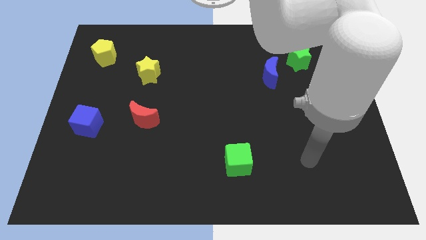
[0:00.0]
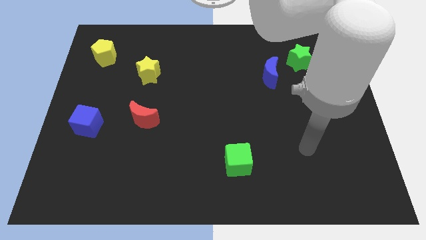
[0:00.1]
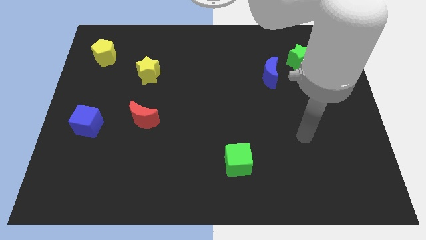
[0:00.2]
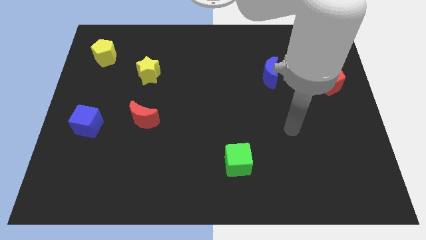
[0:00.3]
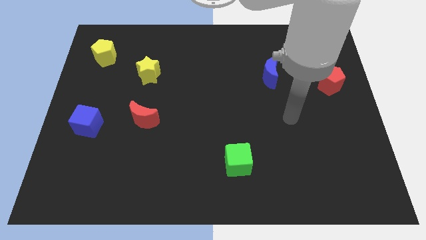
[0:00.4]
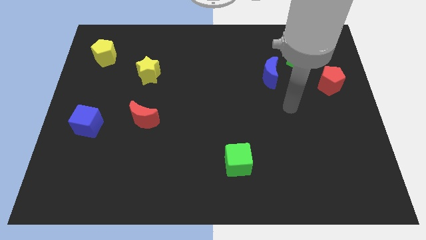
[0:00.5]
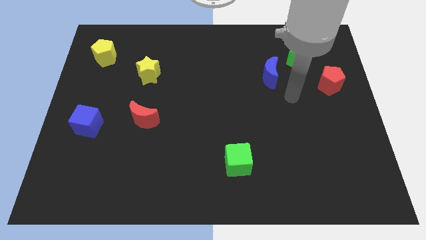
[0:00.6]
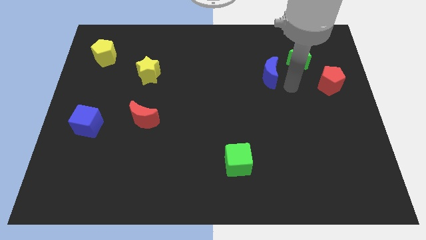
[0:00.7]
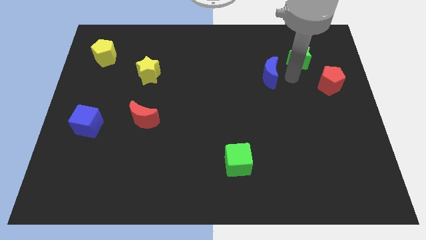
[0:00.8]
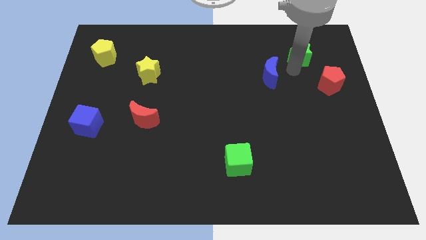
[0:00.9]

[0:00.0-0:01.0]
move the blue moon away from the green star

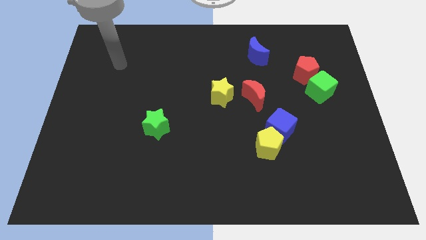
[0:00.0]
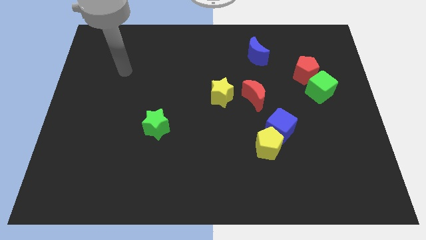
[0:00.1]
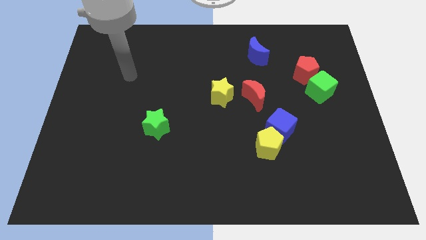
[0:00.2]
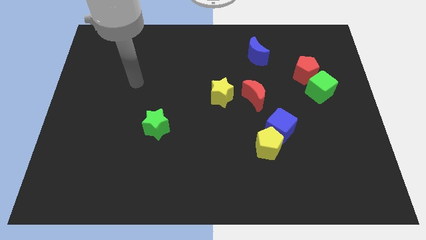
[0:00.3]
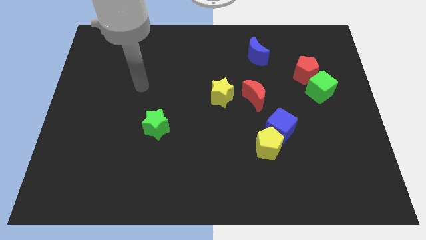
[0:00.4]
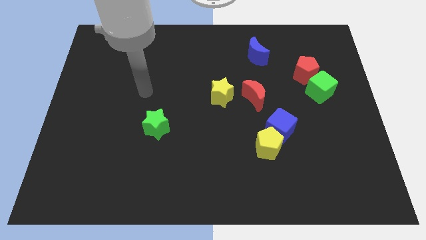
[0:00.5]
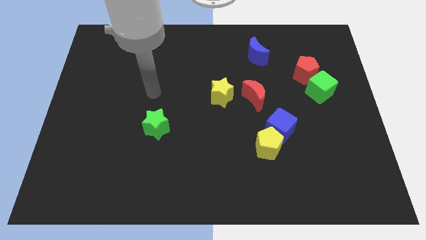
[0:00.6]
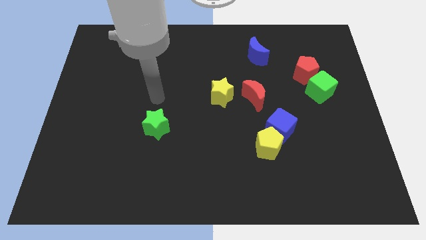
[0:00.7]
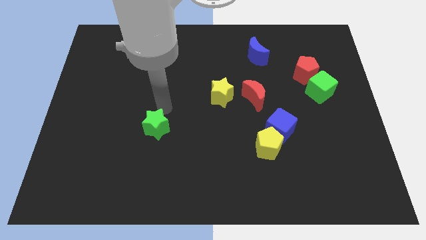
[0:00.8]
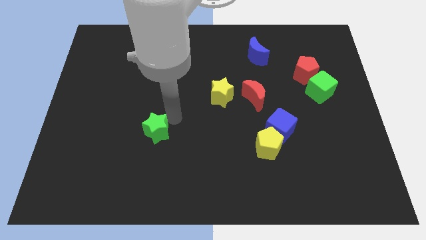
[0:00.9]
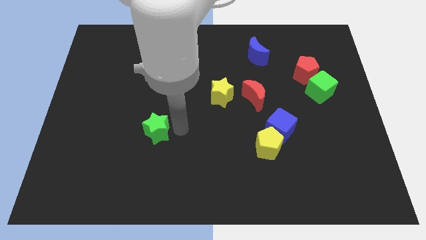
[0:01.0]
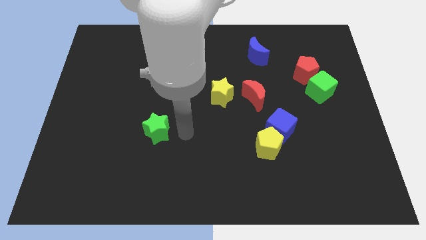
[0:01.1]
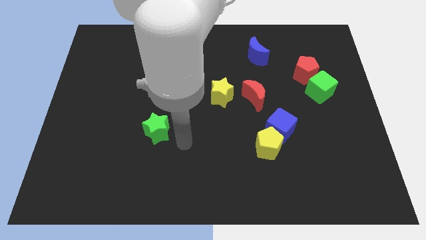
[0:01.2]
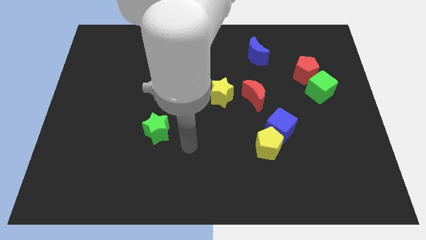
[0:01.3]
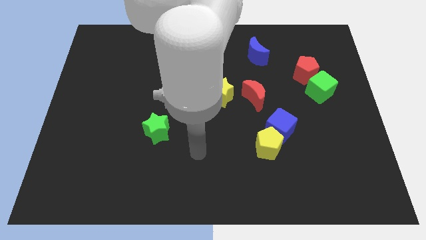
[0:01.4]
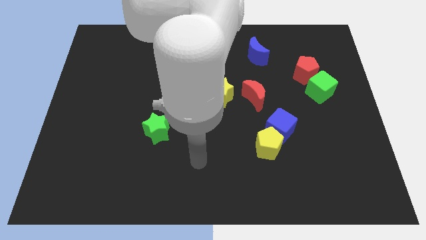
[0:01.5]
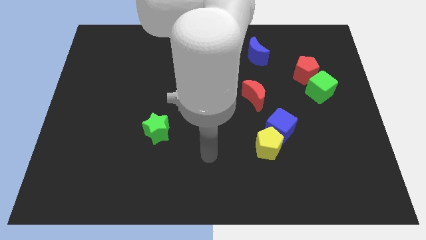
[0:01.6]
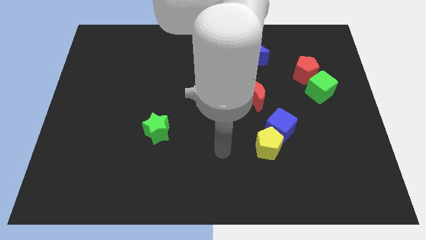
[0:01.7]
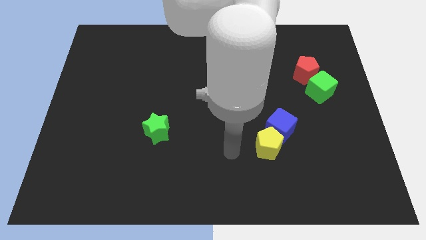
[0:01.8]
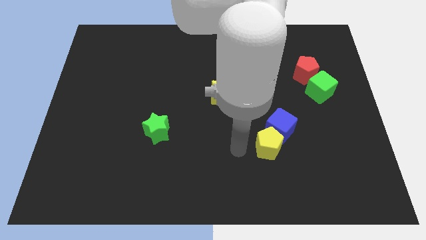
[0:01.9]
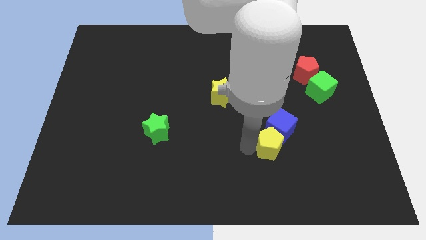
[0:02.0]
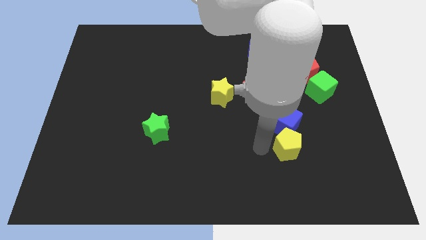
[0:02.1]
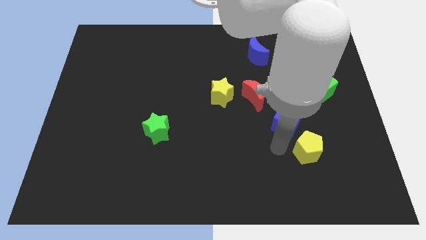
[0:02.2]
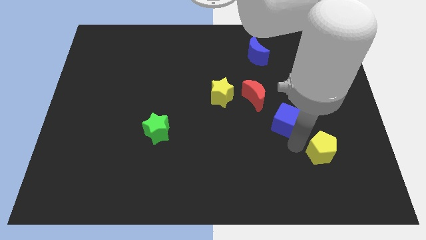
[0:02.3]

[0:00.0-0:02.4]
move the blue cube away from the yellow pentagon

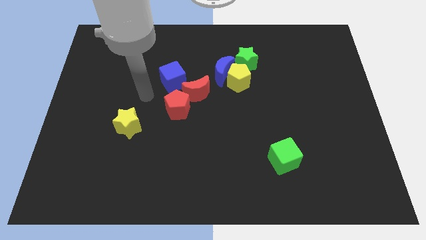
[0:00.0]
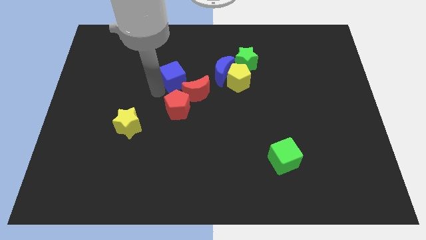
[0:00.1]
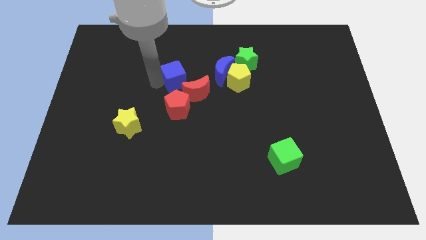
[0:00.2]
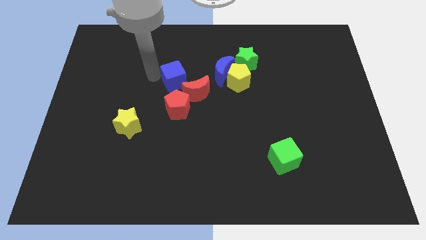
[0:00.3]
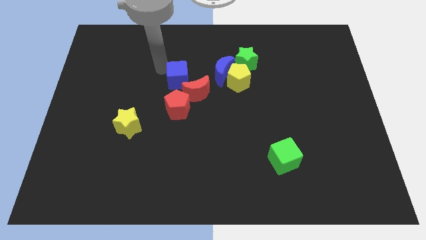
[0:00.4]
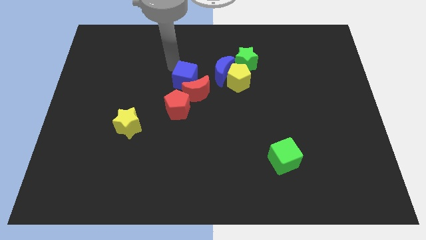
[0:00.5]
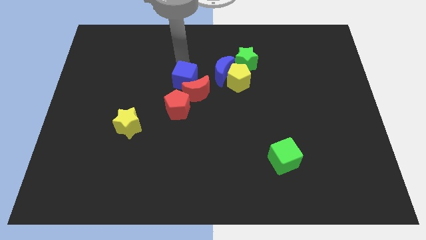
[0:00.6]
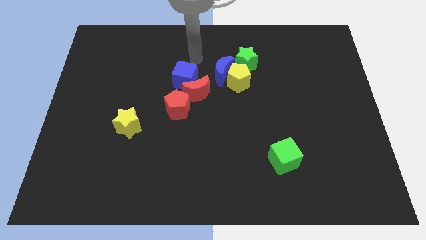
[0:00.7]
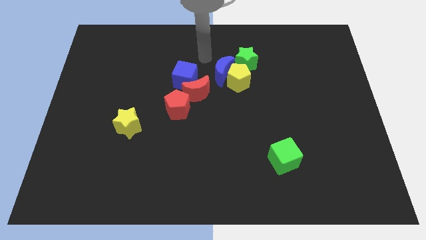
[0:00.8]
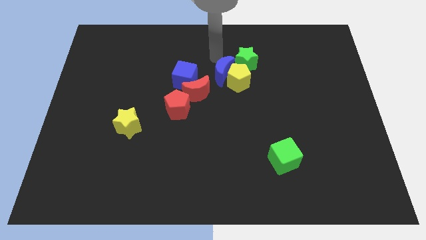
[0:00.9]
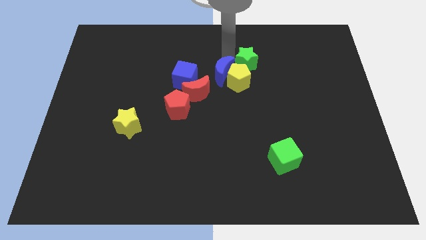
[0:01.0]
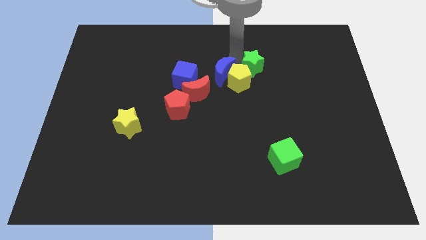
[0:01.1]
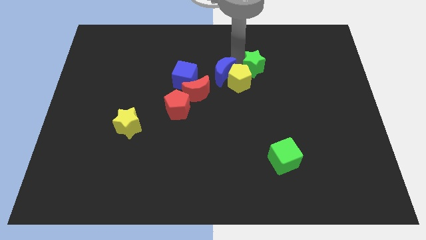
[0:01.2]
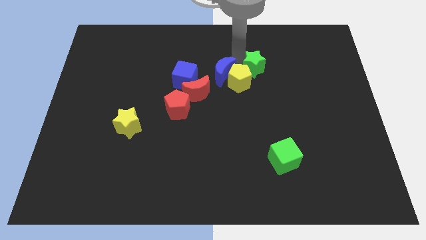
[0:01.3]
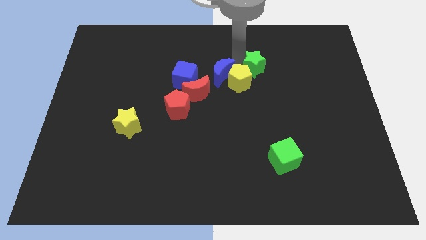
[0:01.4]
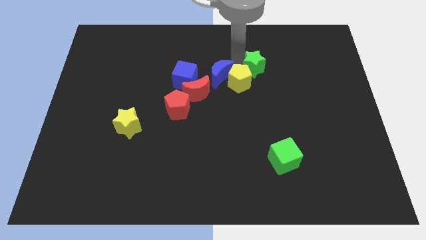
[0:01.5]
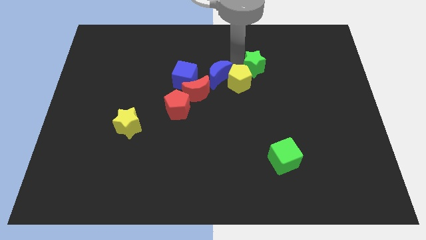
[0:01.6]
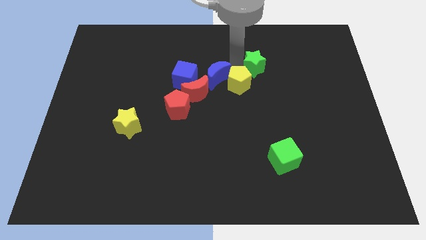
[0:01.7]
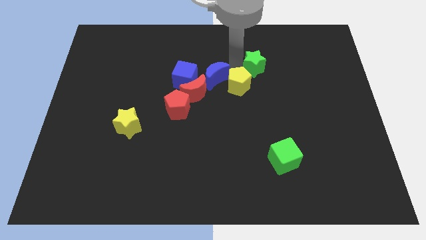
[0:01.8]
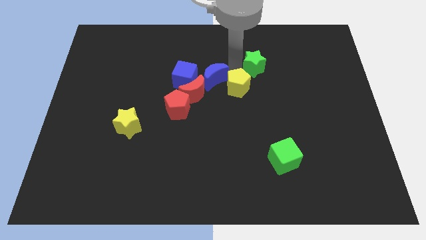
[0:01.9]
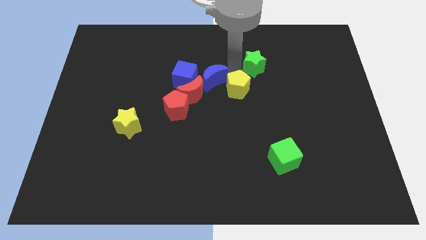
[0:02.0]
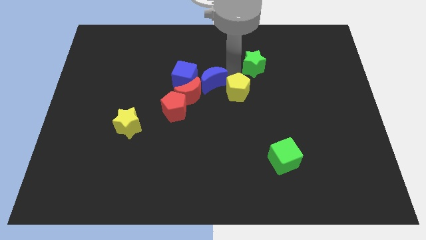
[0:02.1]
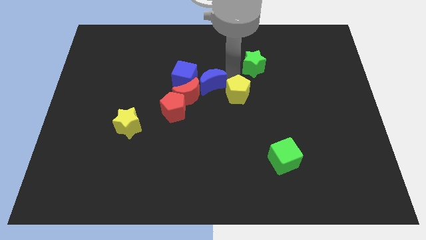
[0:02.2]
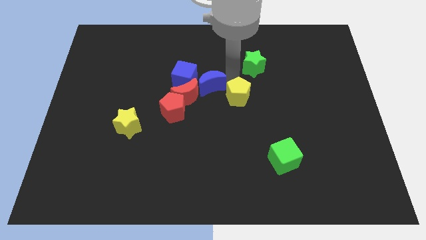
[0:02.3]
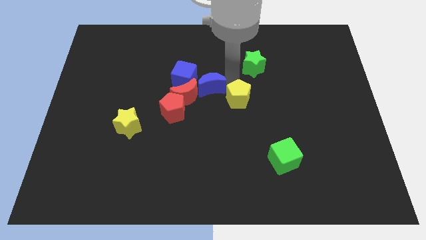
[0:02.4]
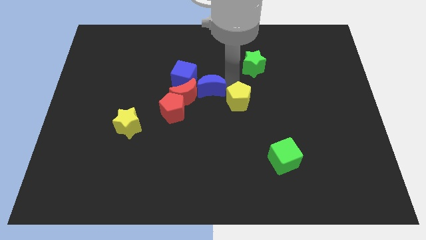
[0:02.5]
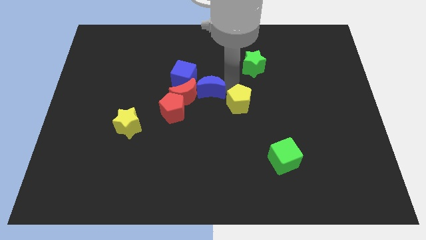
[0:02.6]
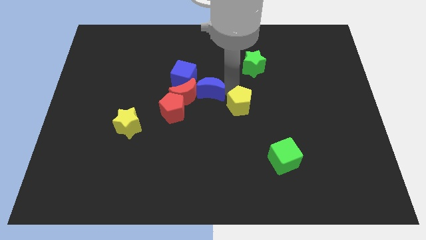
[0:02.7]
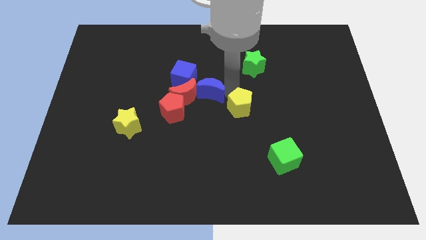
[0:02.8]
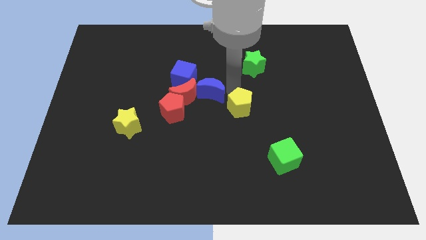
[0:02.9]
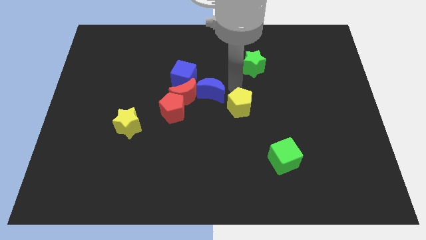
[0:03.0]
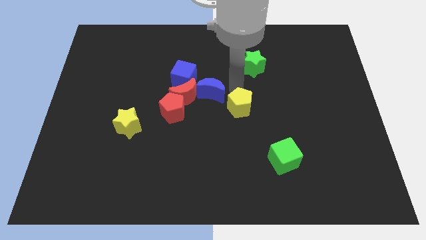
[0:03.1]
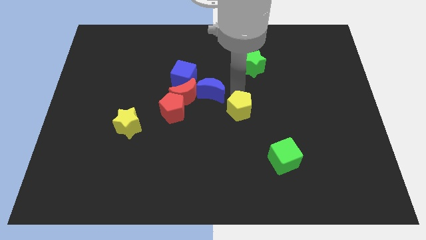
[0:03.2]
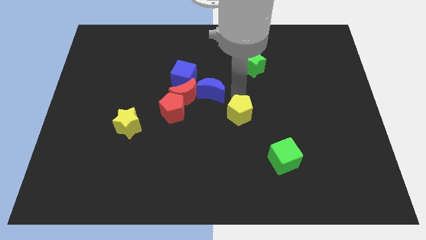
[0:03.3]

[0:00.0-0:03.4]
pull the yellow pentagon apart from the blue moon and green star

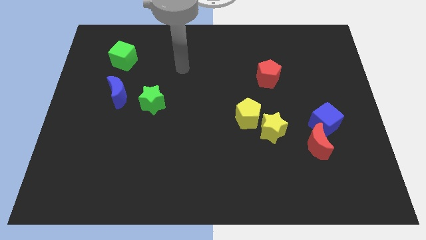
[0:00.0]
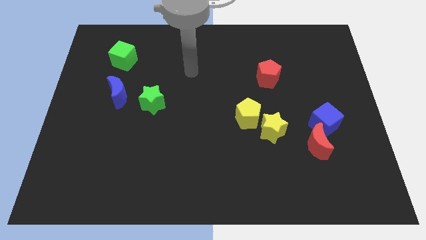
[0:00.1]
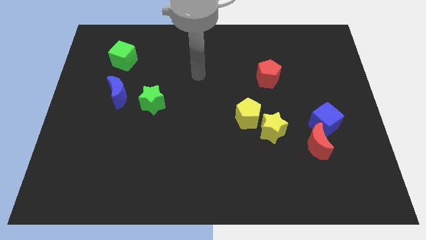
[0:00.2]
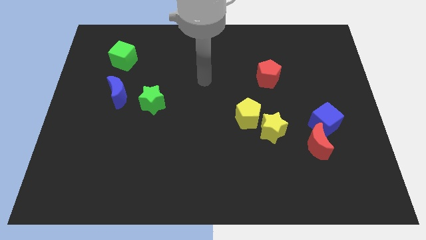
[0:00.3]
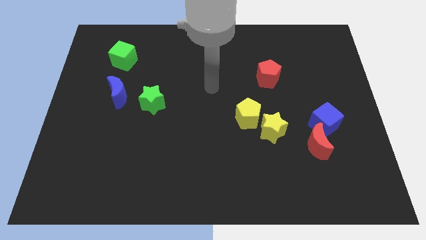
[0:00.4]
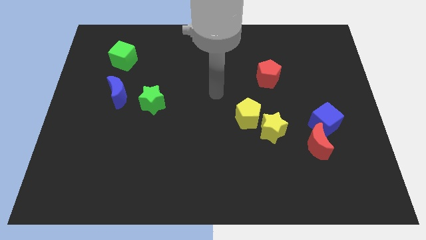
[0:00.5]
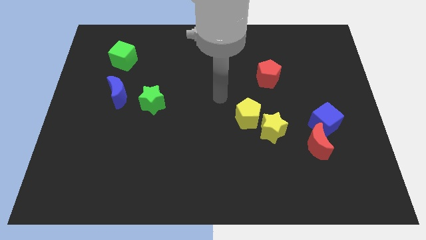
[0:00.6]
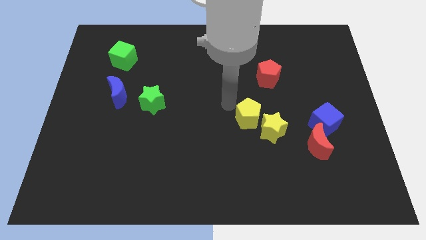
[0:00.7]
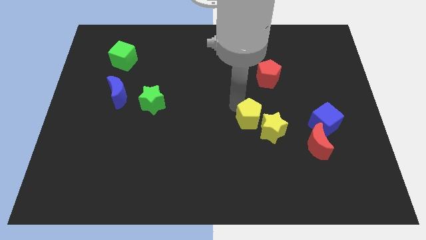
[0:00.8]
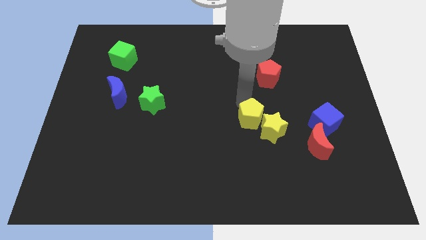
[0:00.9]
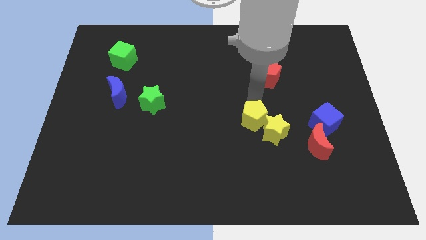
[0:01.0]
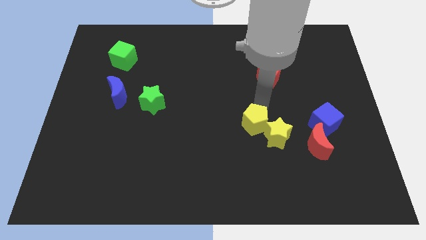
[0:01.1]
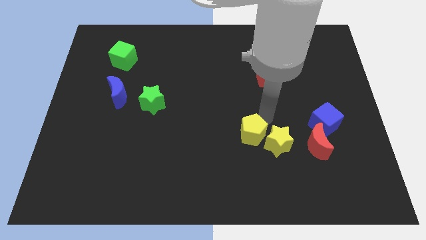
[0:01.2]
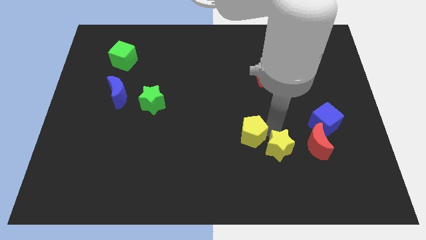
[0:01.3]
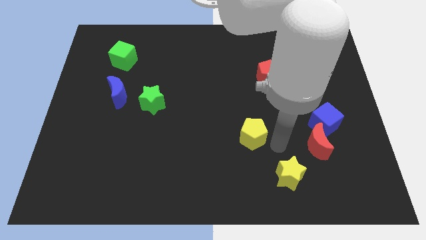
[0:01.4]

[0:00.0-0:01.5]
pull the yellow pentagon apart from the yellow star

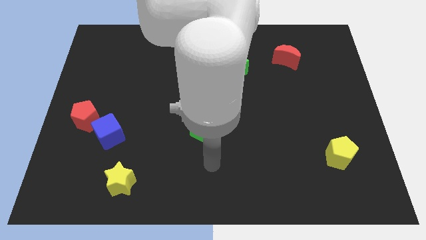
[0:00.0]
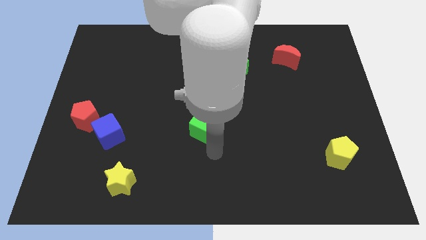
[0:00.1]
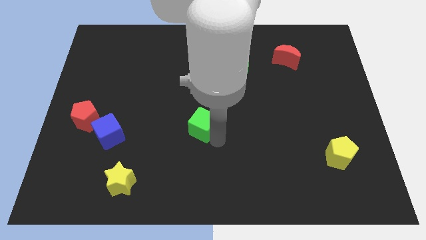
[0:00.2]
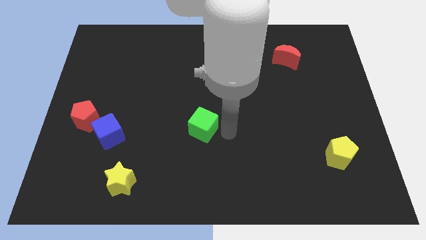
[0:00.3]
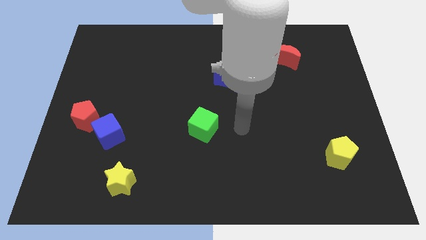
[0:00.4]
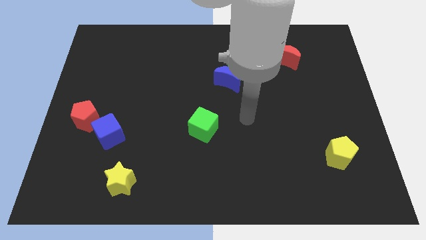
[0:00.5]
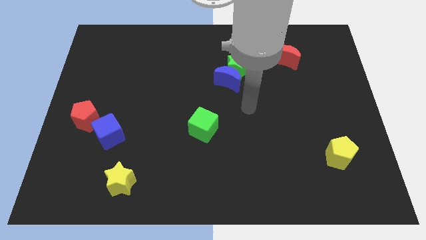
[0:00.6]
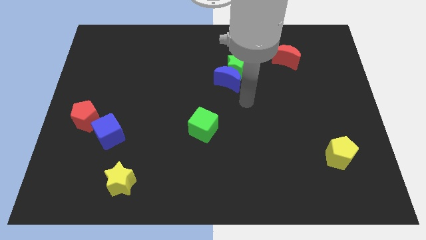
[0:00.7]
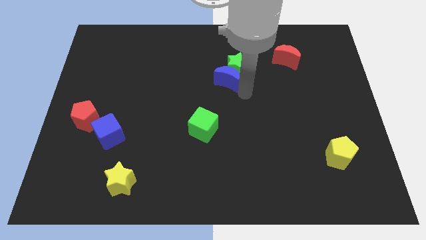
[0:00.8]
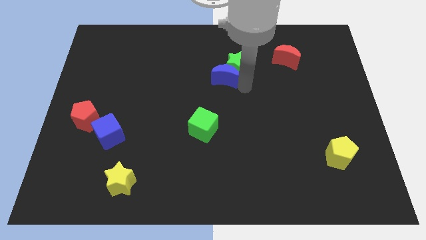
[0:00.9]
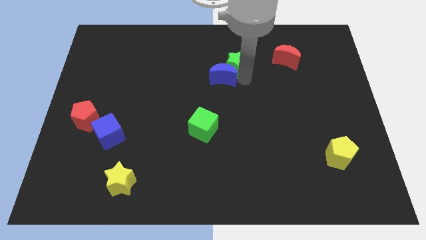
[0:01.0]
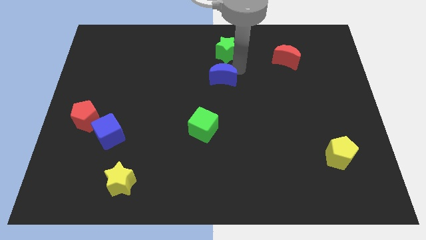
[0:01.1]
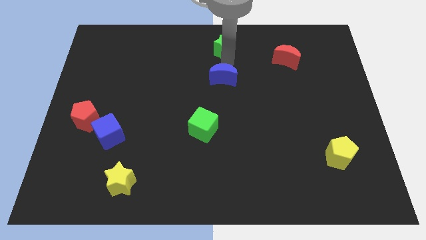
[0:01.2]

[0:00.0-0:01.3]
separate the blue moon from the green star
